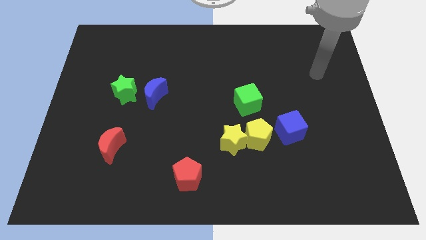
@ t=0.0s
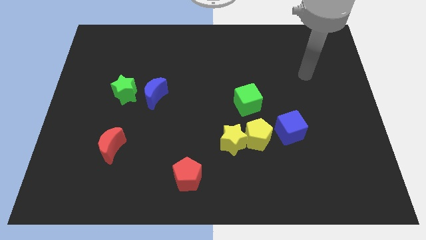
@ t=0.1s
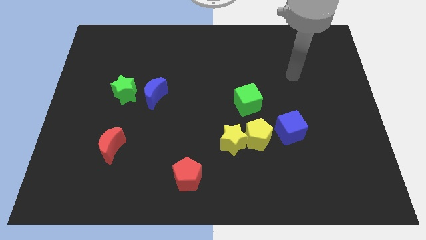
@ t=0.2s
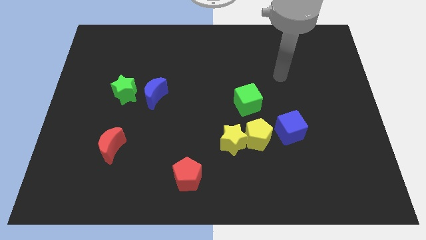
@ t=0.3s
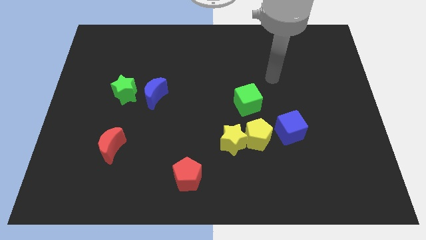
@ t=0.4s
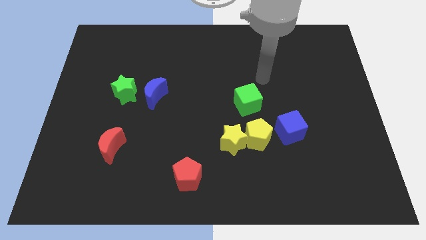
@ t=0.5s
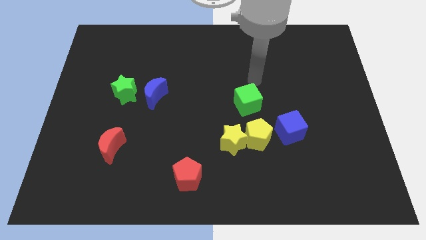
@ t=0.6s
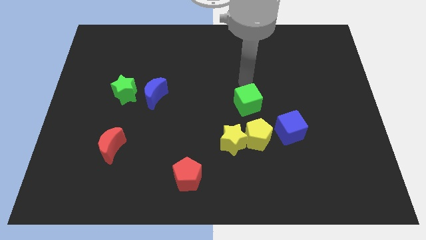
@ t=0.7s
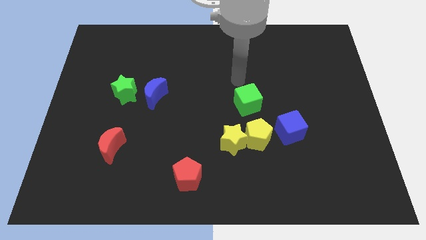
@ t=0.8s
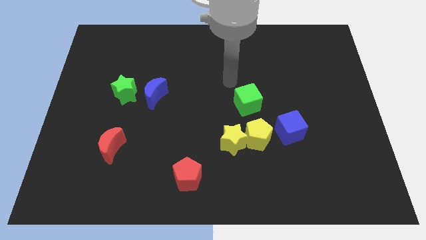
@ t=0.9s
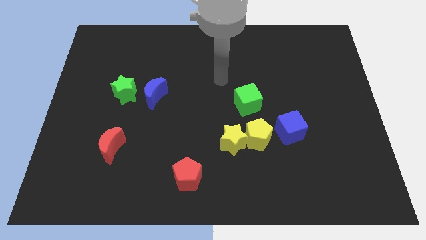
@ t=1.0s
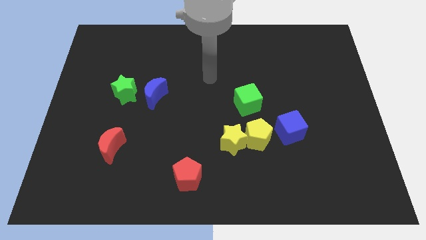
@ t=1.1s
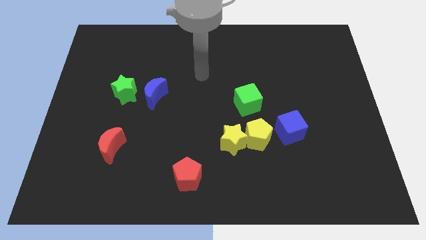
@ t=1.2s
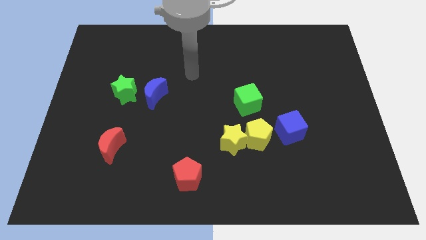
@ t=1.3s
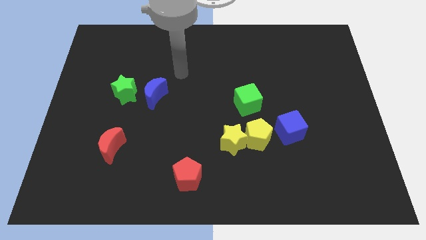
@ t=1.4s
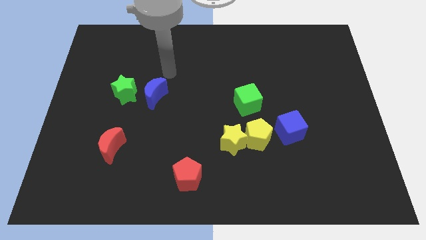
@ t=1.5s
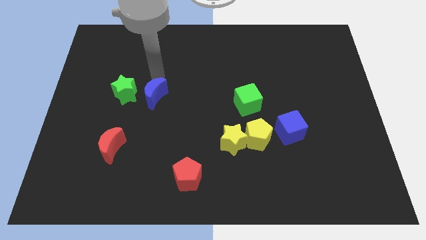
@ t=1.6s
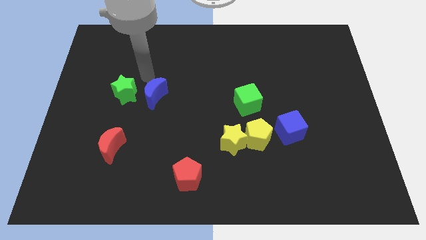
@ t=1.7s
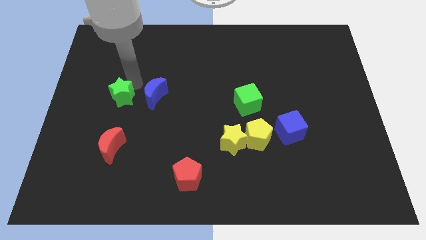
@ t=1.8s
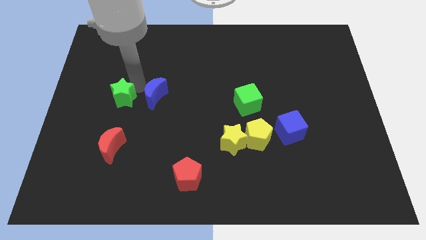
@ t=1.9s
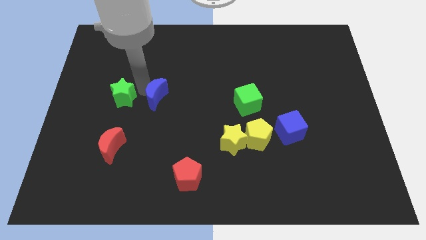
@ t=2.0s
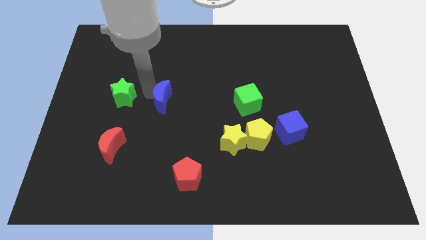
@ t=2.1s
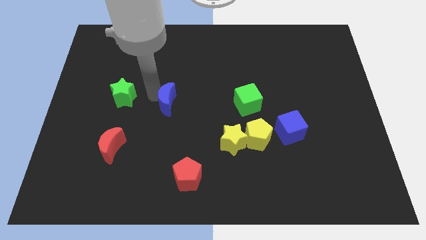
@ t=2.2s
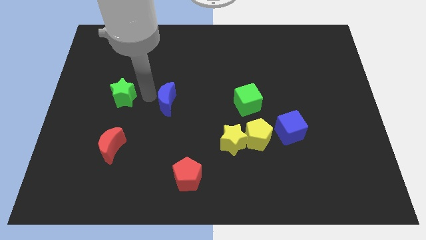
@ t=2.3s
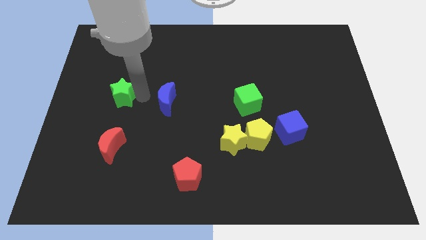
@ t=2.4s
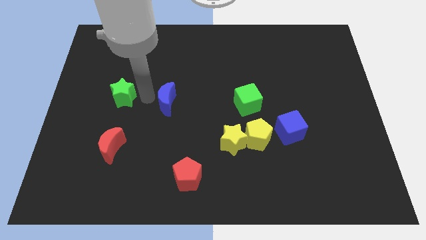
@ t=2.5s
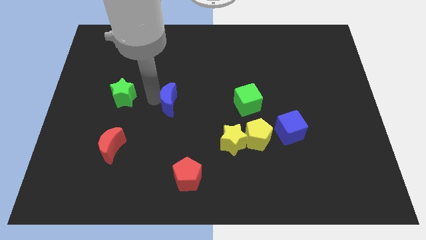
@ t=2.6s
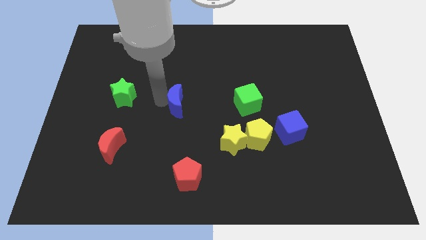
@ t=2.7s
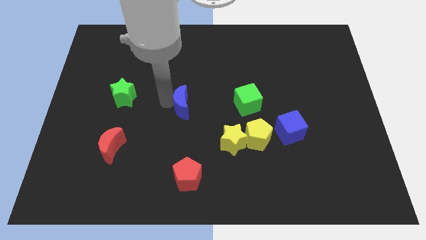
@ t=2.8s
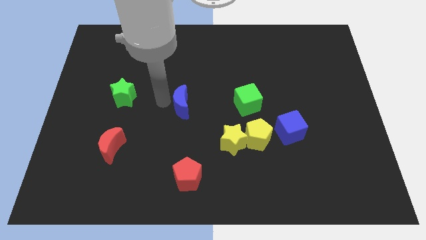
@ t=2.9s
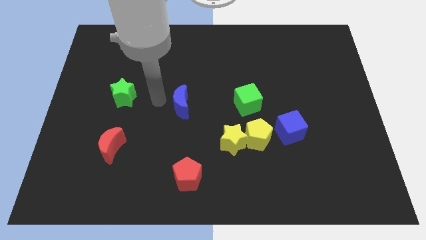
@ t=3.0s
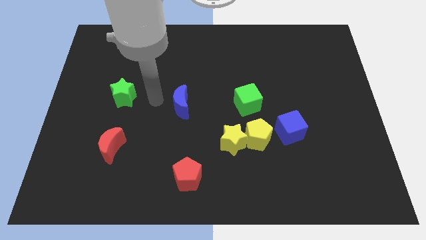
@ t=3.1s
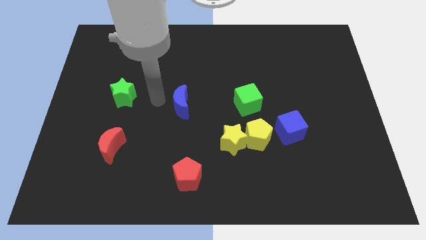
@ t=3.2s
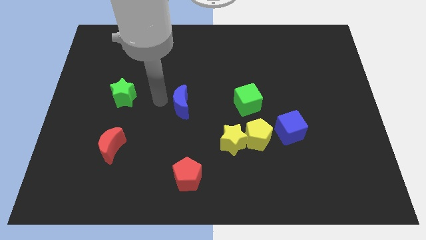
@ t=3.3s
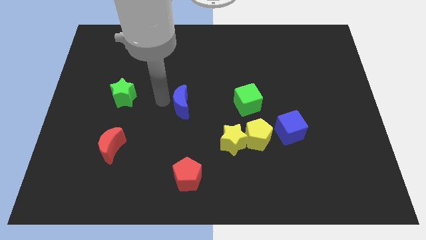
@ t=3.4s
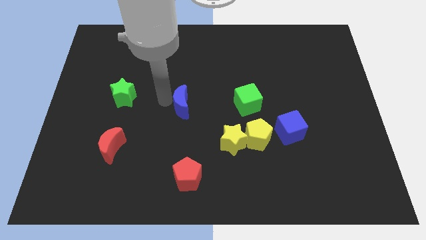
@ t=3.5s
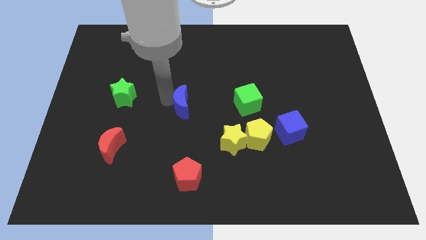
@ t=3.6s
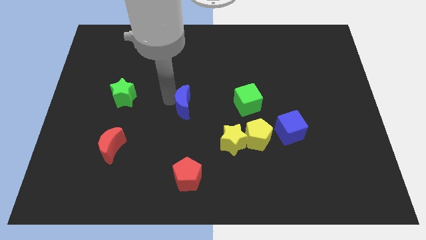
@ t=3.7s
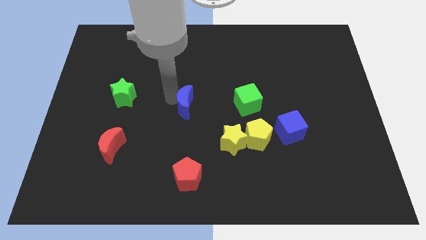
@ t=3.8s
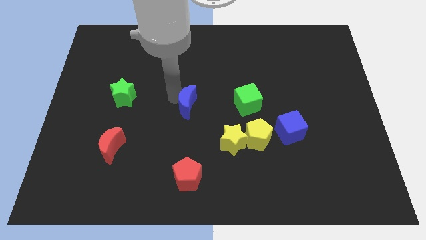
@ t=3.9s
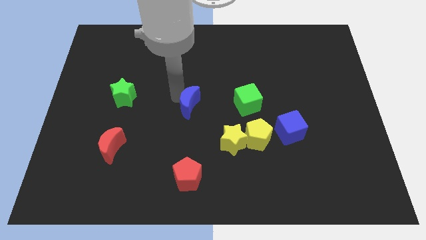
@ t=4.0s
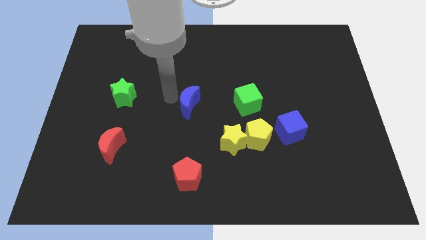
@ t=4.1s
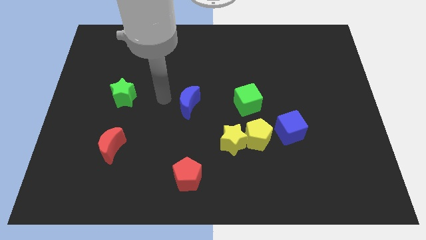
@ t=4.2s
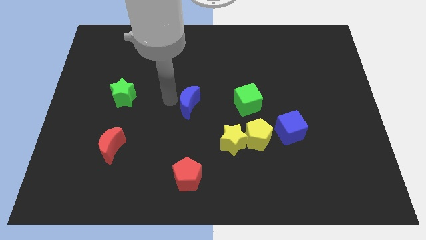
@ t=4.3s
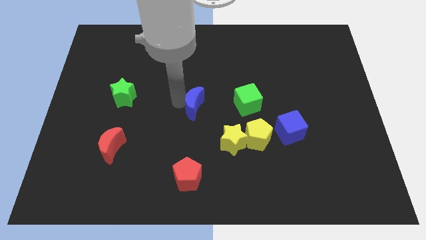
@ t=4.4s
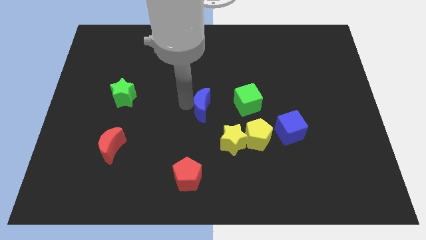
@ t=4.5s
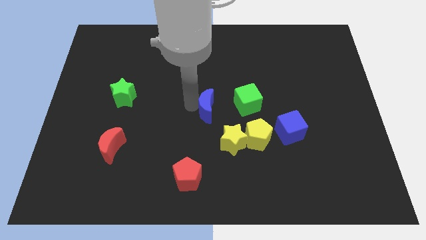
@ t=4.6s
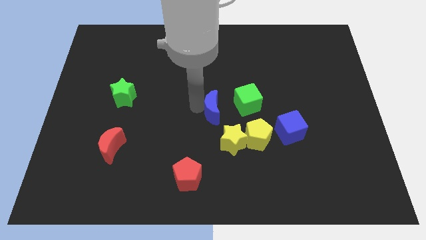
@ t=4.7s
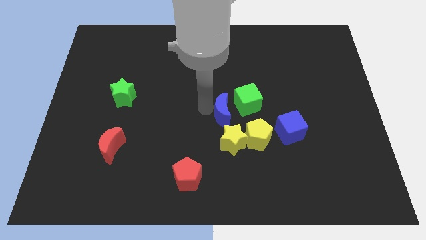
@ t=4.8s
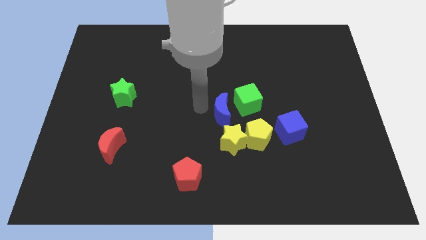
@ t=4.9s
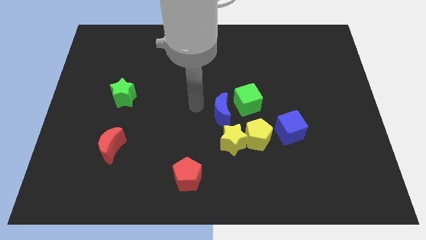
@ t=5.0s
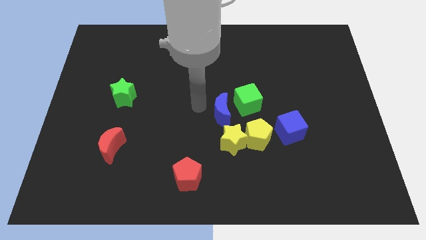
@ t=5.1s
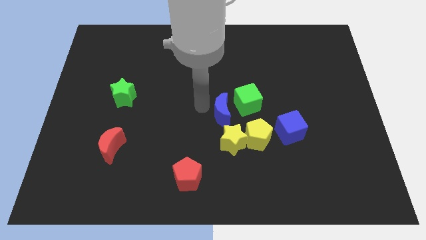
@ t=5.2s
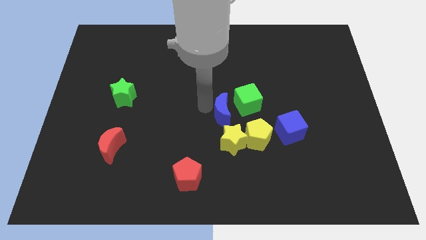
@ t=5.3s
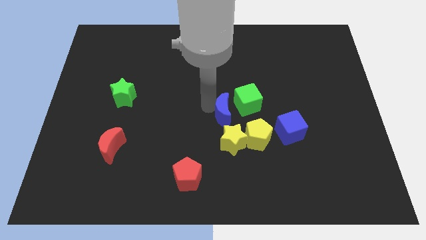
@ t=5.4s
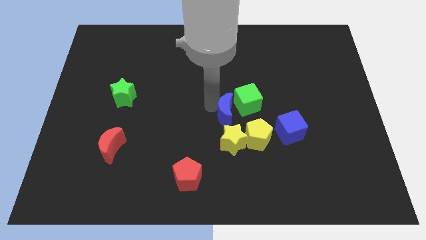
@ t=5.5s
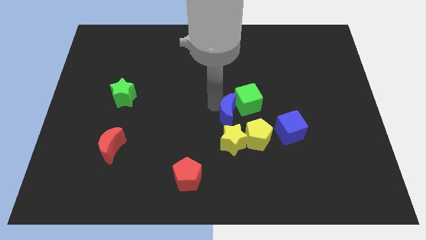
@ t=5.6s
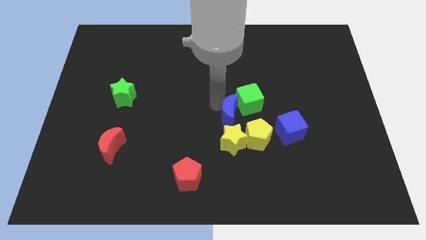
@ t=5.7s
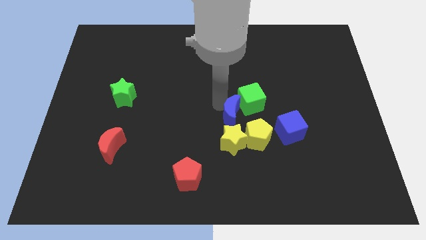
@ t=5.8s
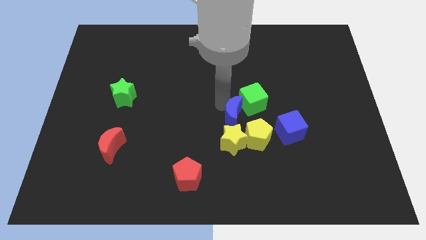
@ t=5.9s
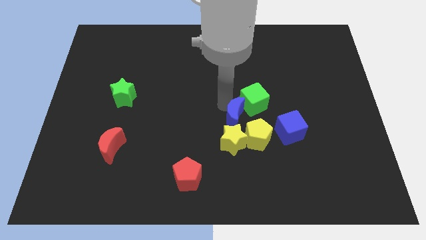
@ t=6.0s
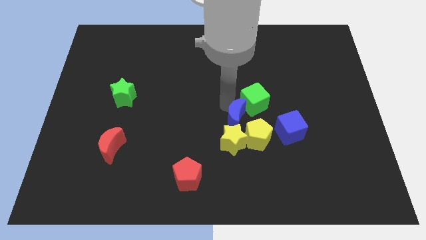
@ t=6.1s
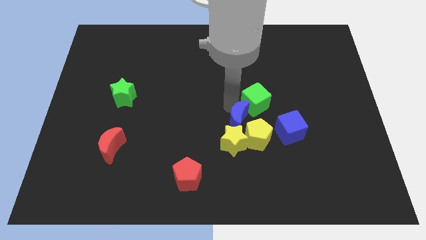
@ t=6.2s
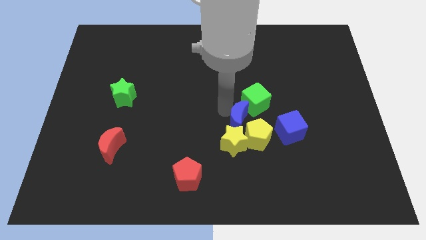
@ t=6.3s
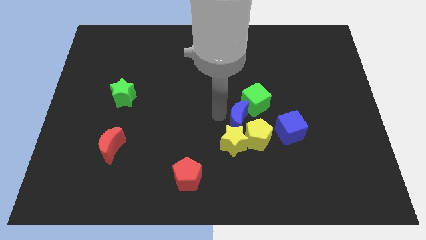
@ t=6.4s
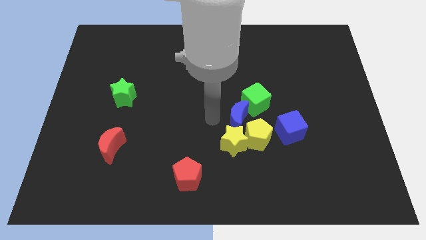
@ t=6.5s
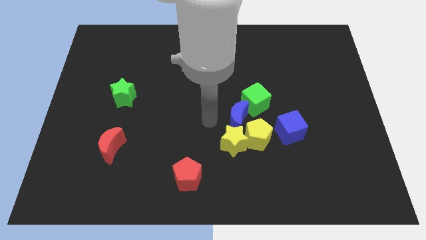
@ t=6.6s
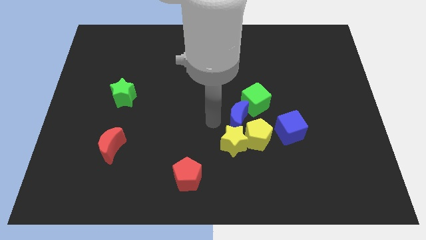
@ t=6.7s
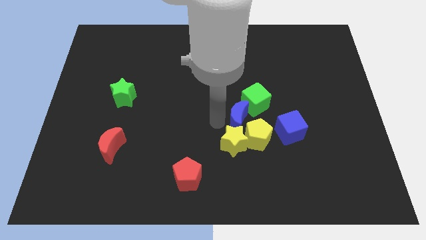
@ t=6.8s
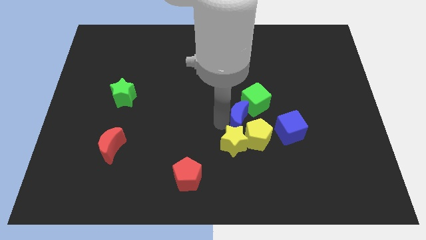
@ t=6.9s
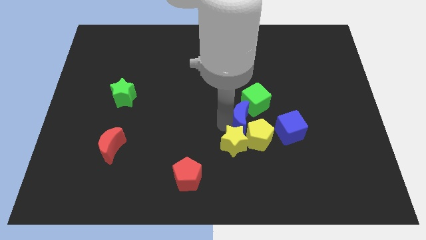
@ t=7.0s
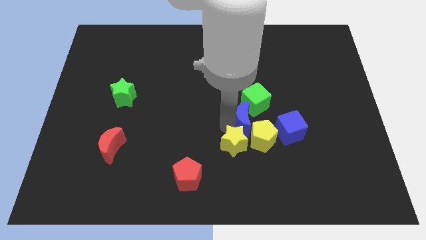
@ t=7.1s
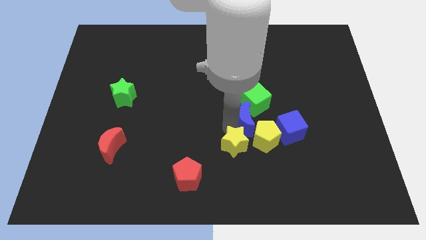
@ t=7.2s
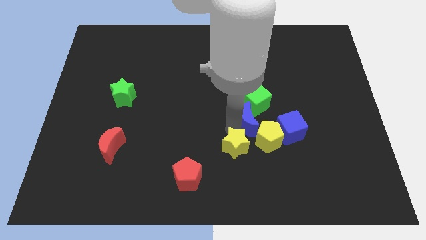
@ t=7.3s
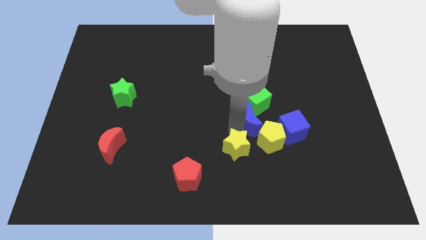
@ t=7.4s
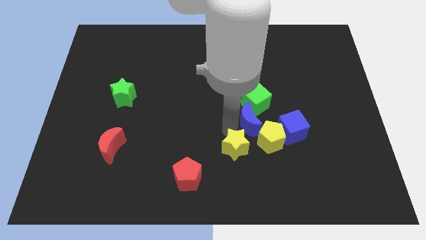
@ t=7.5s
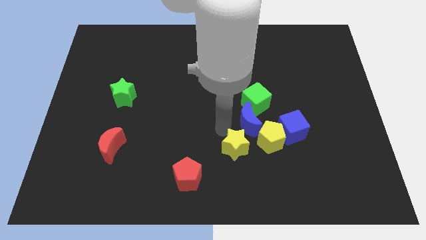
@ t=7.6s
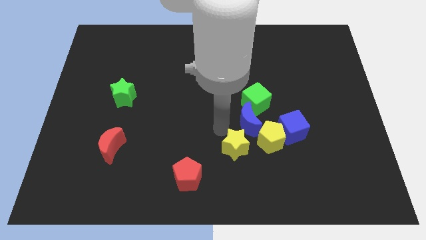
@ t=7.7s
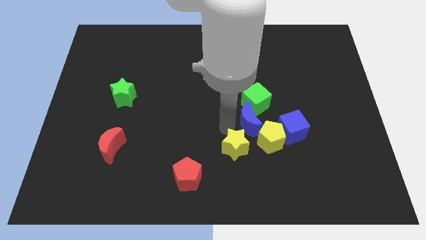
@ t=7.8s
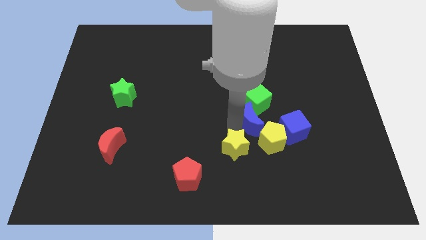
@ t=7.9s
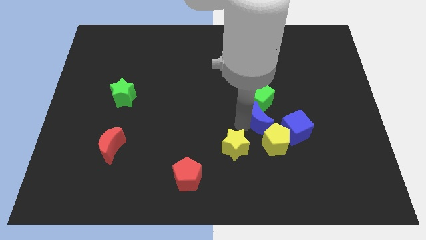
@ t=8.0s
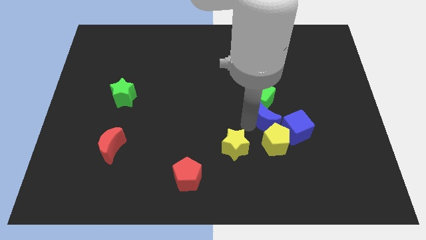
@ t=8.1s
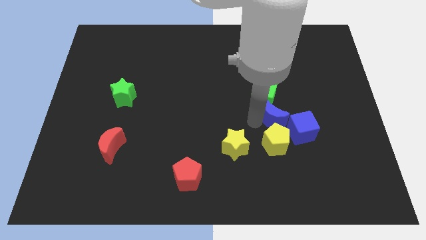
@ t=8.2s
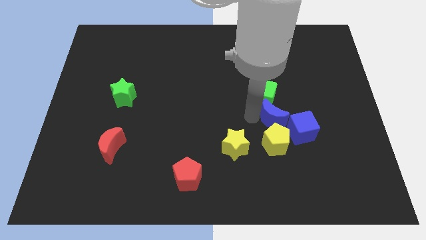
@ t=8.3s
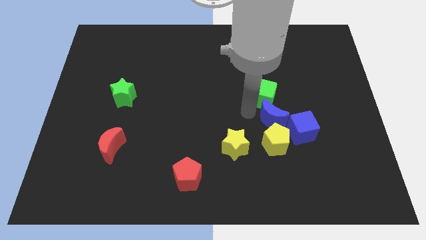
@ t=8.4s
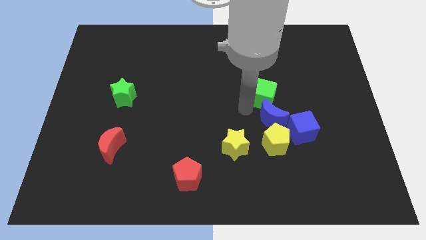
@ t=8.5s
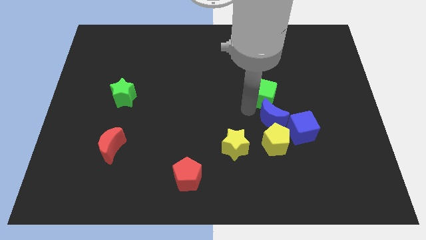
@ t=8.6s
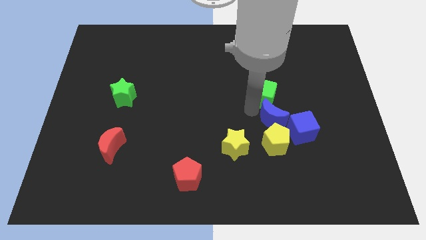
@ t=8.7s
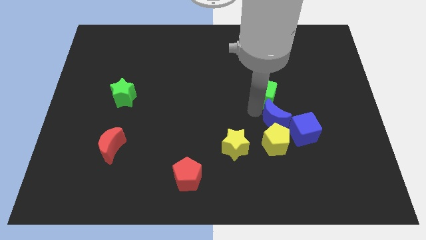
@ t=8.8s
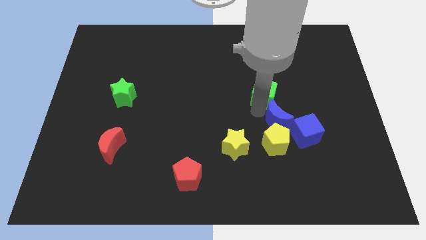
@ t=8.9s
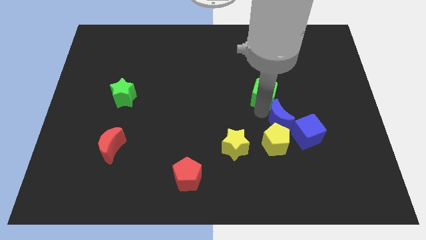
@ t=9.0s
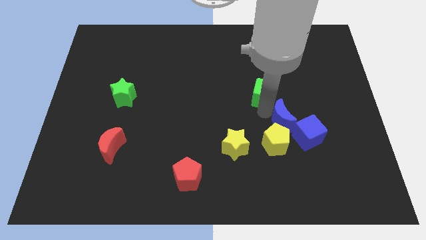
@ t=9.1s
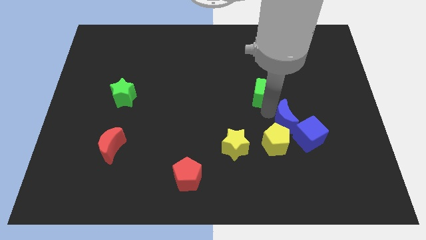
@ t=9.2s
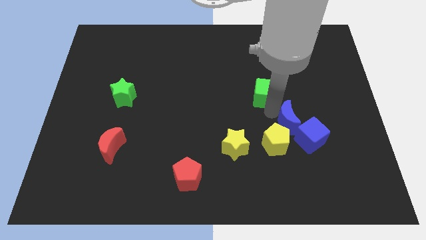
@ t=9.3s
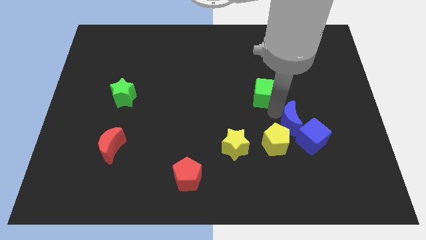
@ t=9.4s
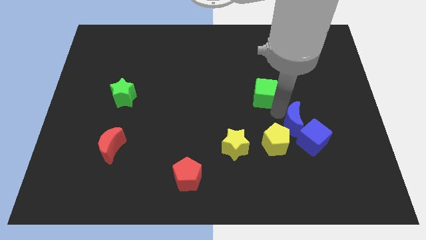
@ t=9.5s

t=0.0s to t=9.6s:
move the blue moon to the blue cube
